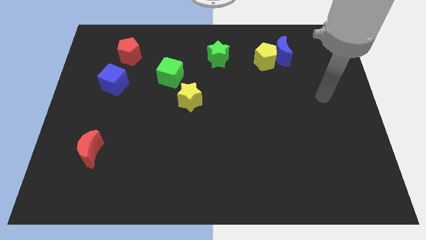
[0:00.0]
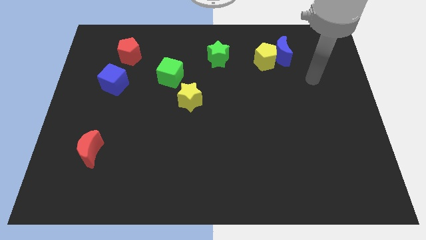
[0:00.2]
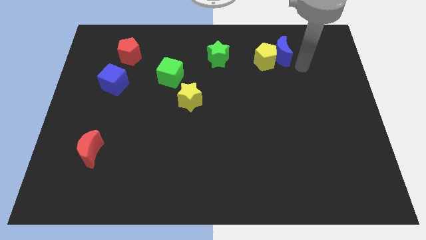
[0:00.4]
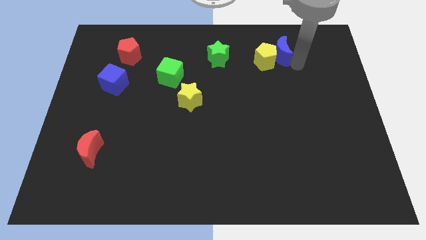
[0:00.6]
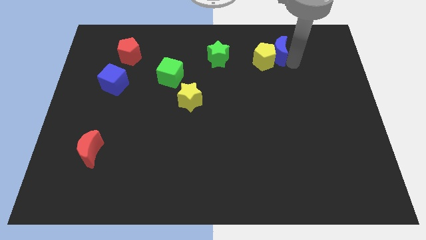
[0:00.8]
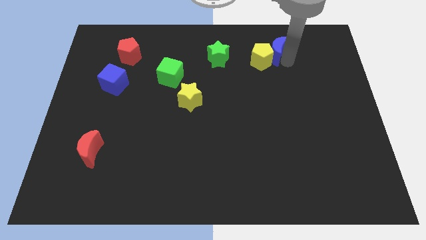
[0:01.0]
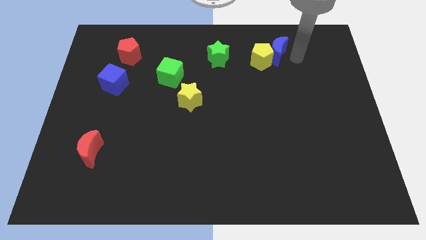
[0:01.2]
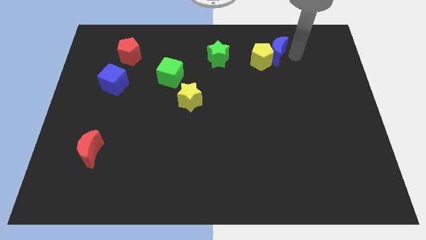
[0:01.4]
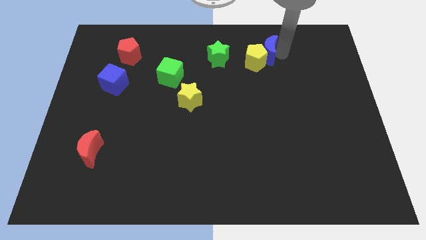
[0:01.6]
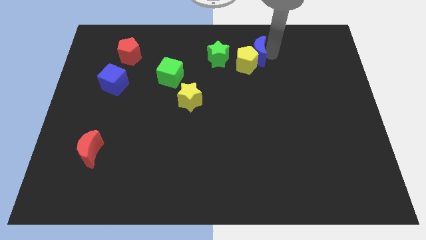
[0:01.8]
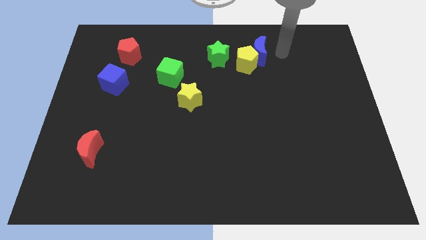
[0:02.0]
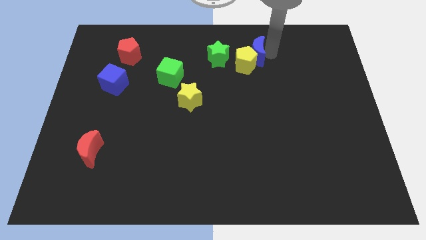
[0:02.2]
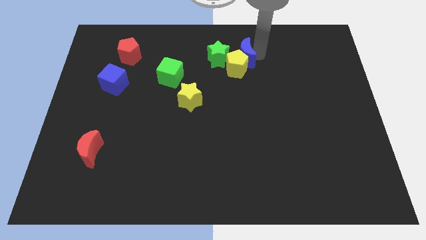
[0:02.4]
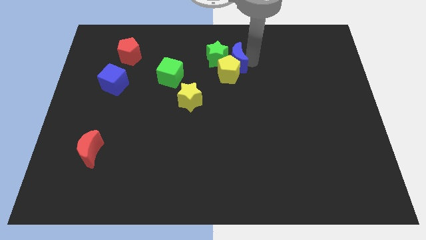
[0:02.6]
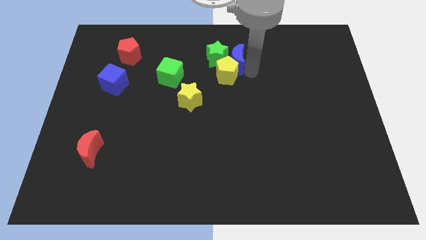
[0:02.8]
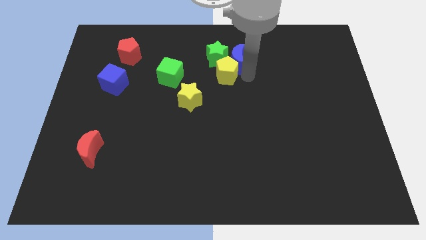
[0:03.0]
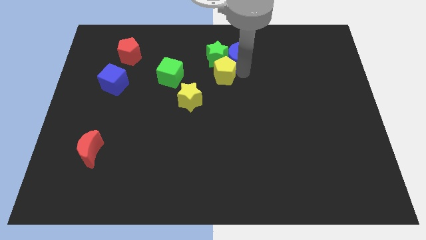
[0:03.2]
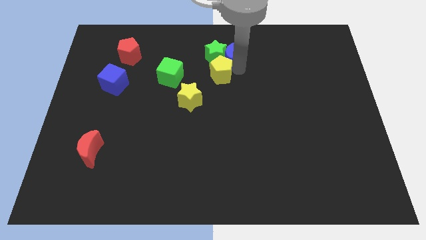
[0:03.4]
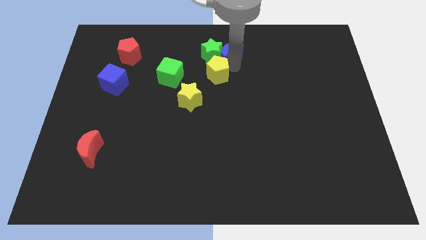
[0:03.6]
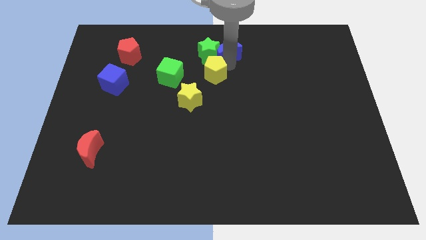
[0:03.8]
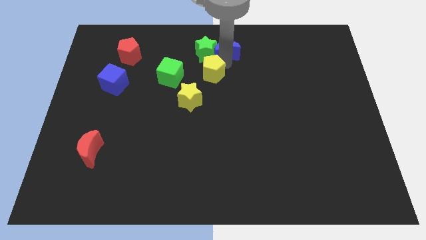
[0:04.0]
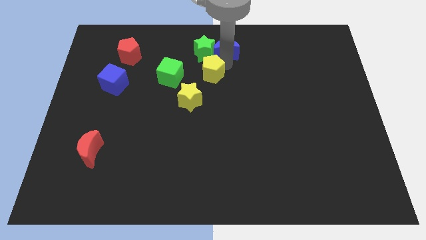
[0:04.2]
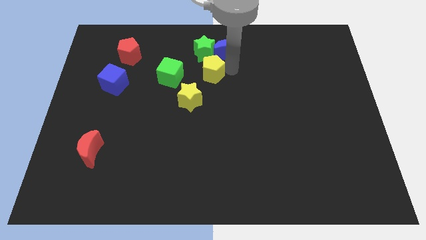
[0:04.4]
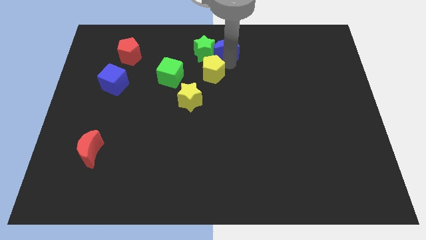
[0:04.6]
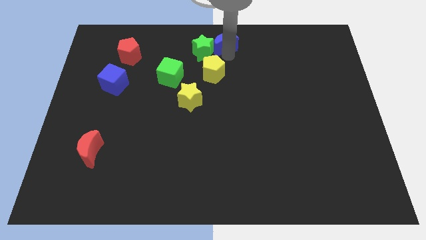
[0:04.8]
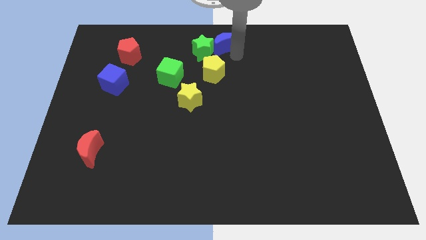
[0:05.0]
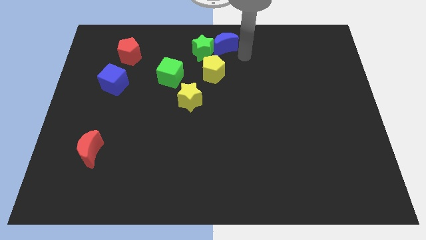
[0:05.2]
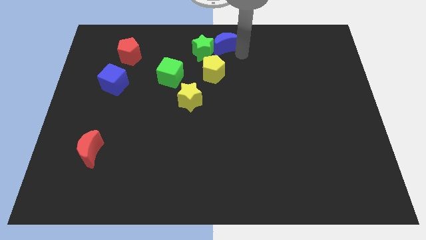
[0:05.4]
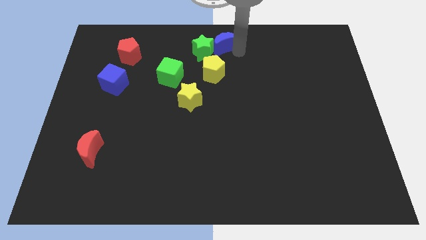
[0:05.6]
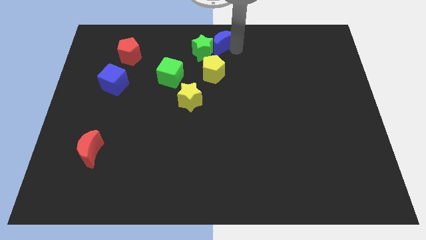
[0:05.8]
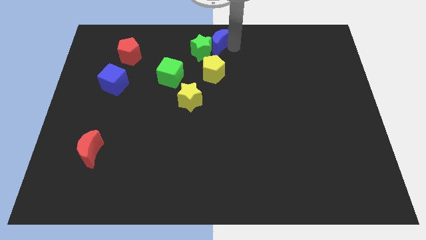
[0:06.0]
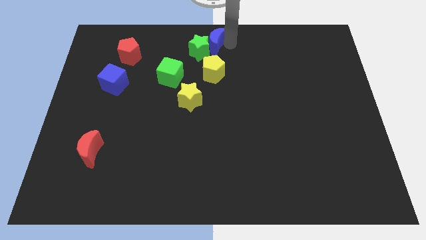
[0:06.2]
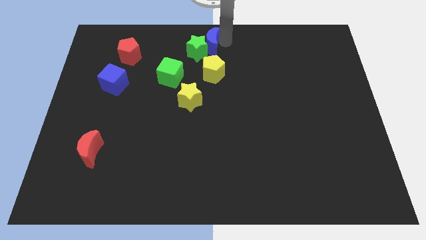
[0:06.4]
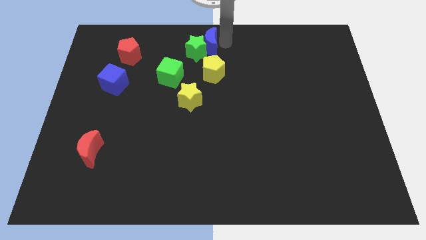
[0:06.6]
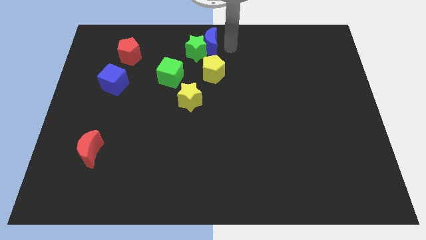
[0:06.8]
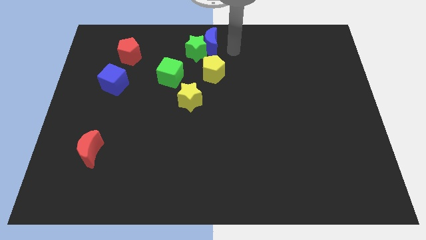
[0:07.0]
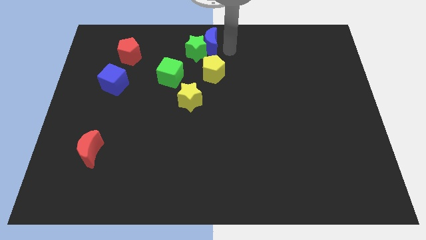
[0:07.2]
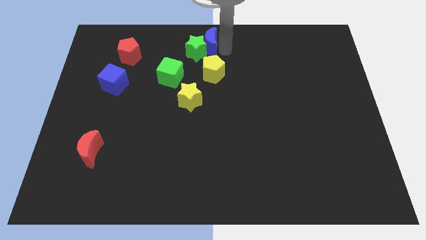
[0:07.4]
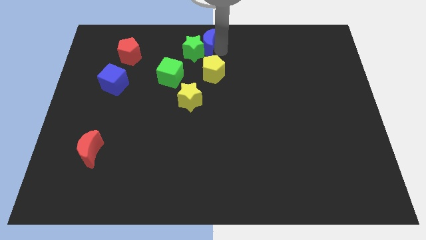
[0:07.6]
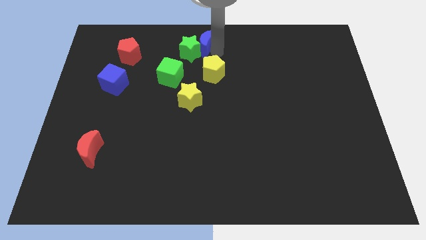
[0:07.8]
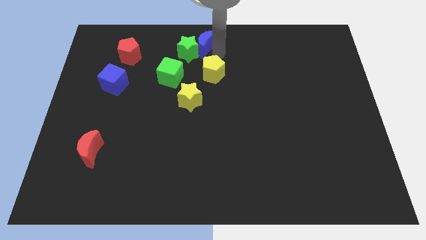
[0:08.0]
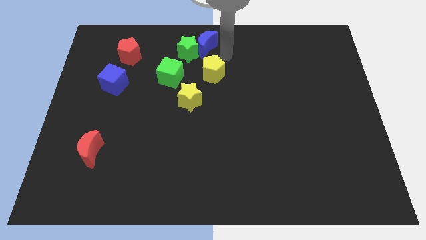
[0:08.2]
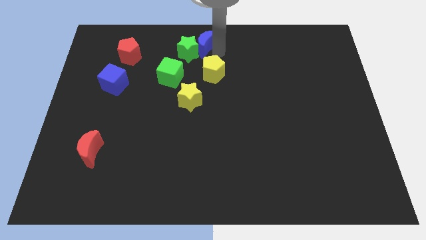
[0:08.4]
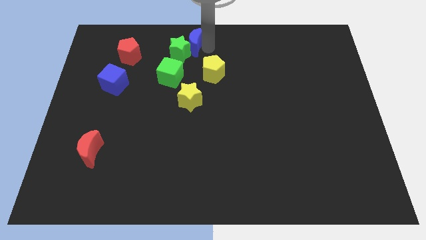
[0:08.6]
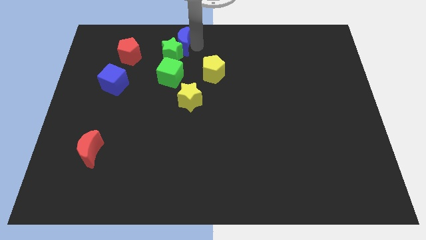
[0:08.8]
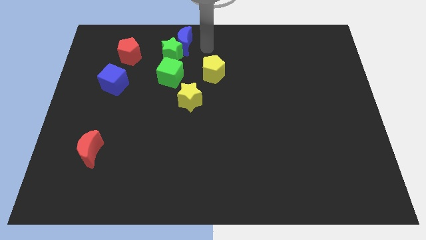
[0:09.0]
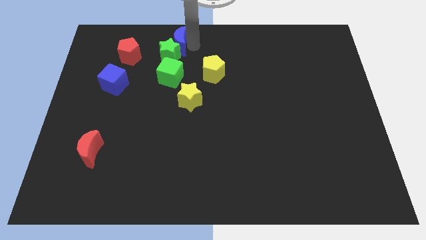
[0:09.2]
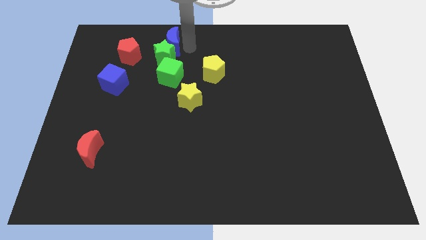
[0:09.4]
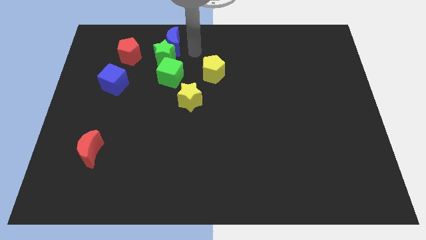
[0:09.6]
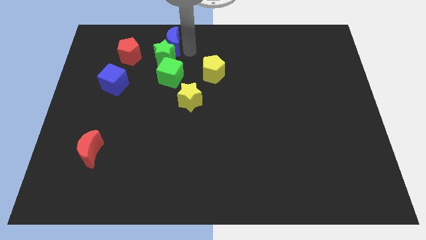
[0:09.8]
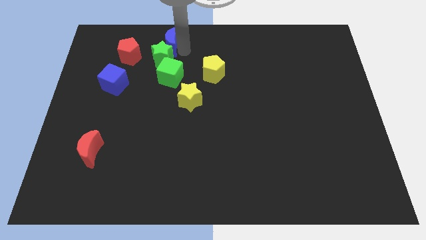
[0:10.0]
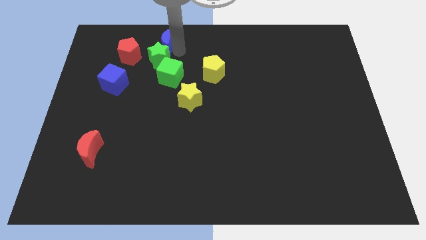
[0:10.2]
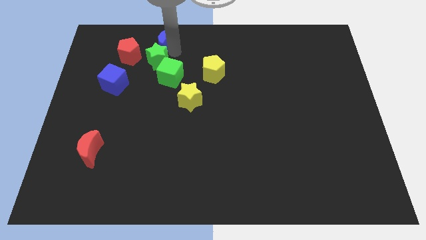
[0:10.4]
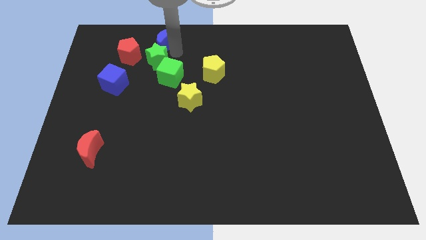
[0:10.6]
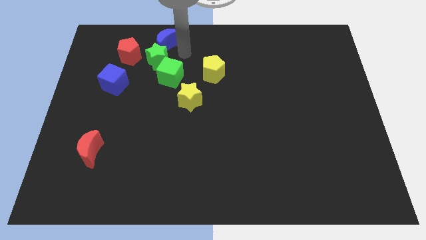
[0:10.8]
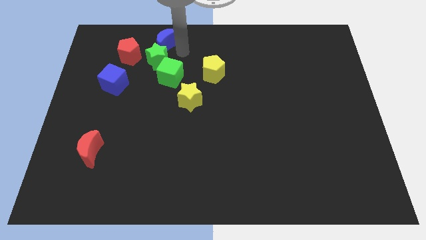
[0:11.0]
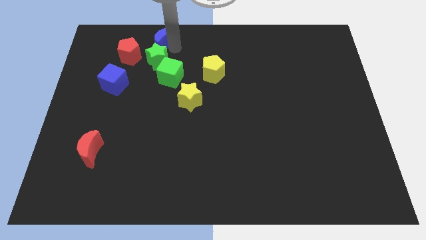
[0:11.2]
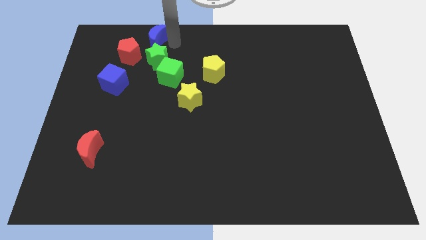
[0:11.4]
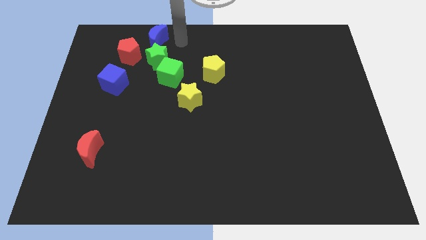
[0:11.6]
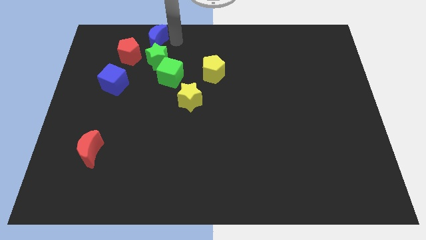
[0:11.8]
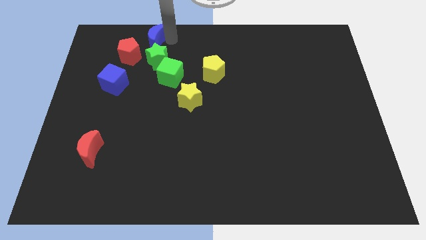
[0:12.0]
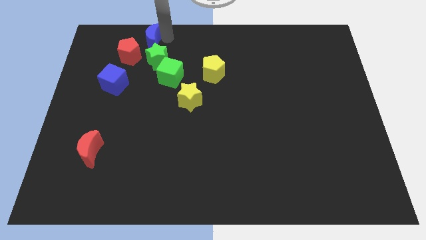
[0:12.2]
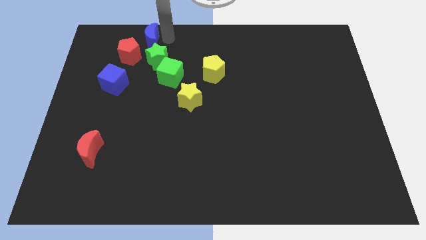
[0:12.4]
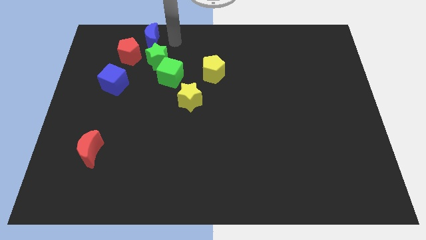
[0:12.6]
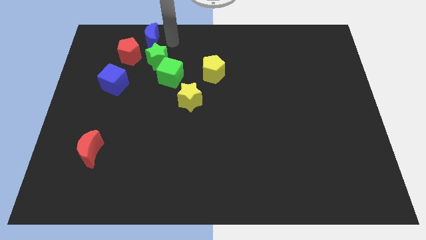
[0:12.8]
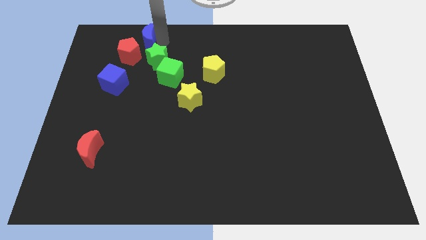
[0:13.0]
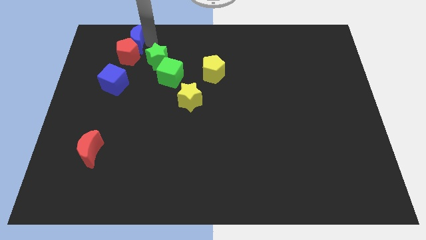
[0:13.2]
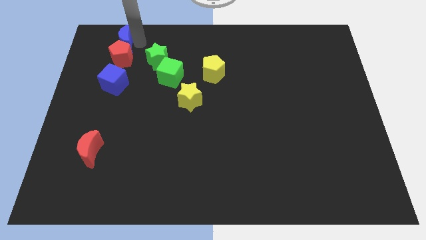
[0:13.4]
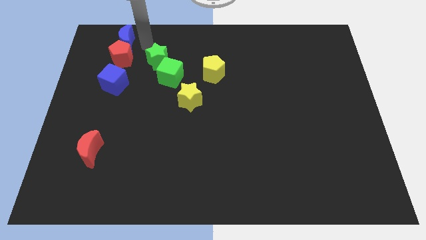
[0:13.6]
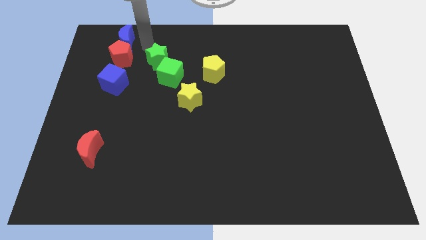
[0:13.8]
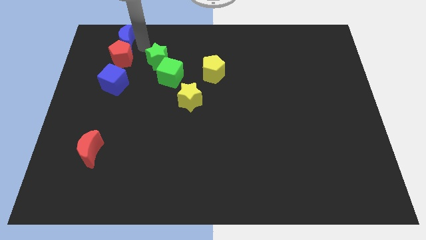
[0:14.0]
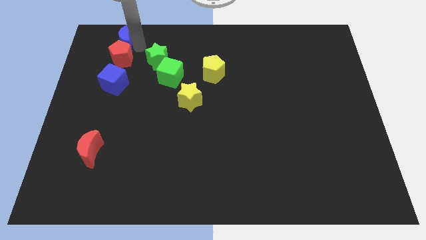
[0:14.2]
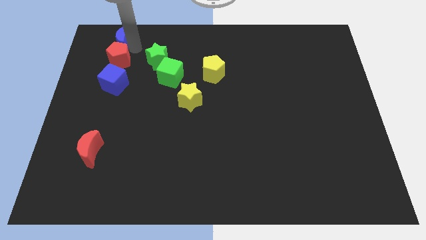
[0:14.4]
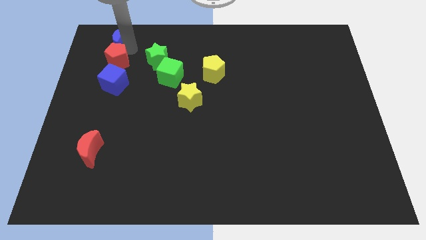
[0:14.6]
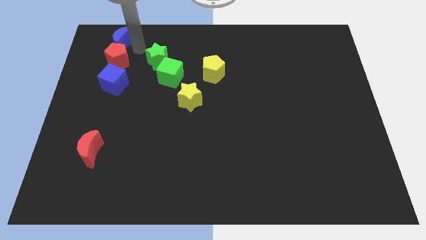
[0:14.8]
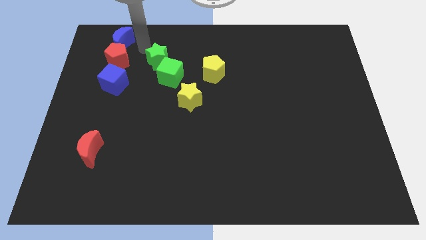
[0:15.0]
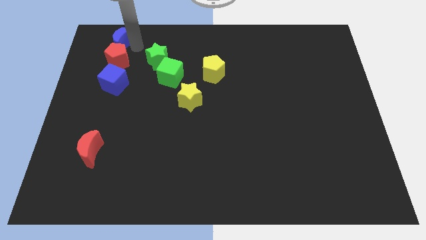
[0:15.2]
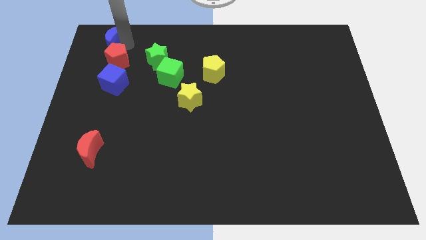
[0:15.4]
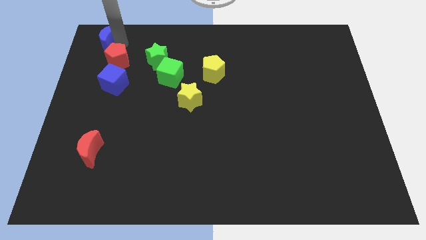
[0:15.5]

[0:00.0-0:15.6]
push the blue moon to the upper left corner
